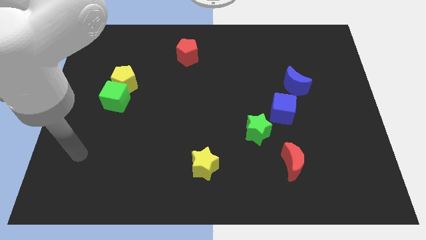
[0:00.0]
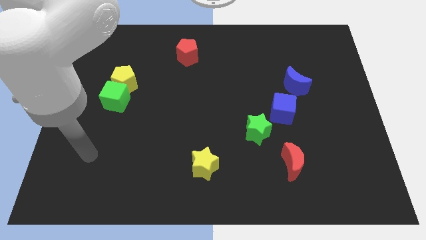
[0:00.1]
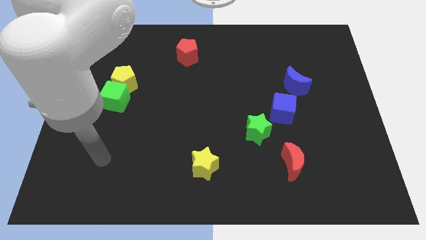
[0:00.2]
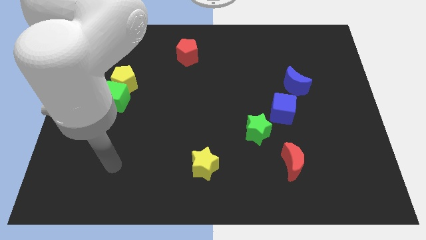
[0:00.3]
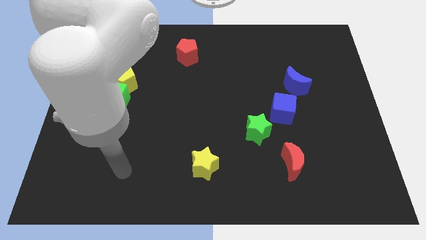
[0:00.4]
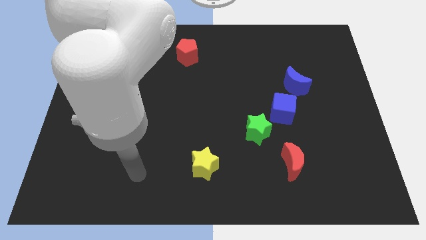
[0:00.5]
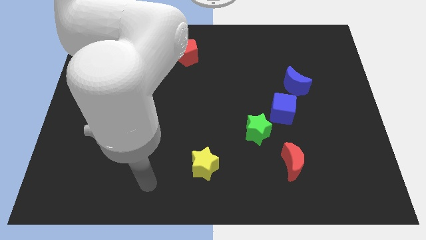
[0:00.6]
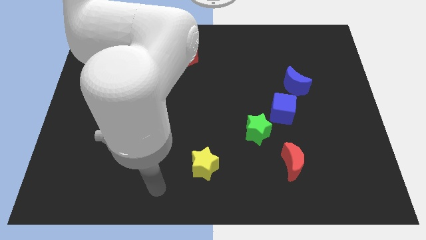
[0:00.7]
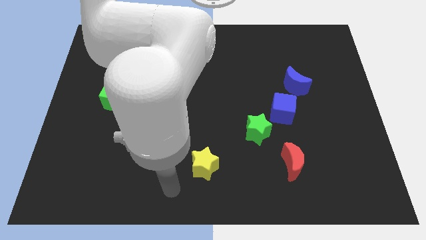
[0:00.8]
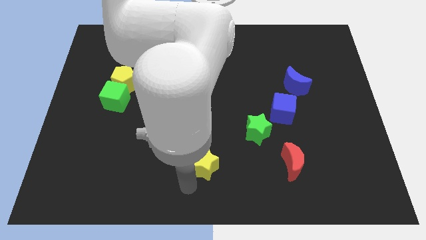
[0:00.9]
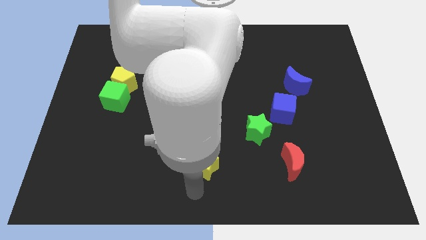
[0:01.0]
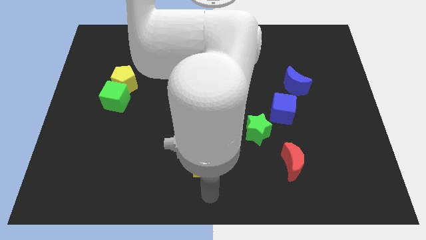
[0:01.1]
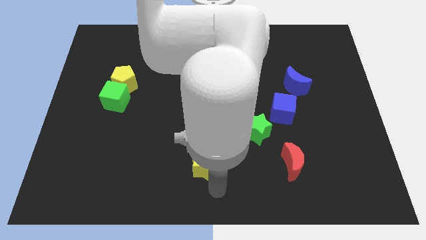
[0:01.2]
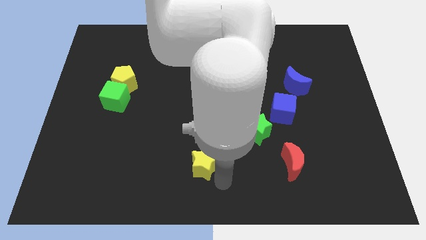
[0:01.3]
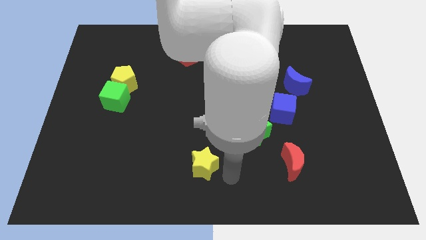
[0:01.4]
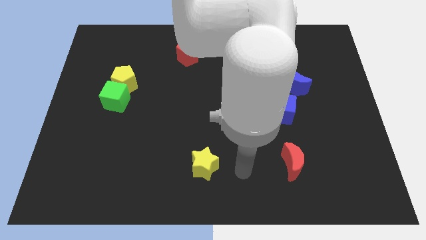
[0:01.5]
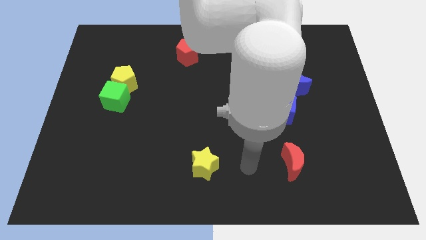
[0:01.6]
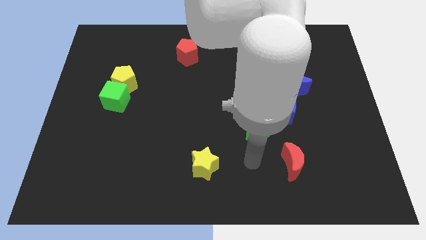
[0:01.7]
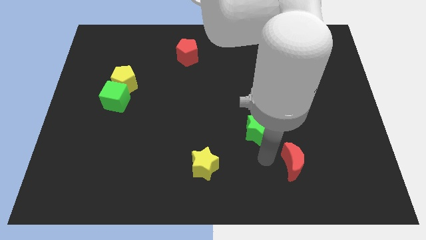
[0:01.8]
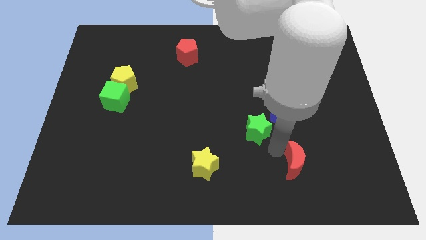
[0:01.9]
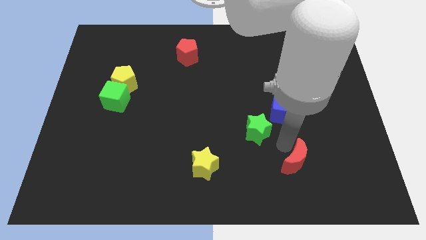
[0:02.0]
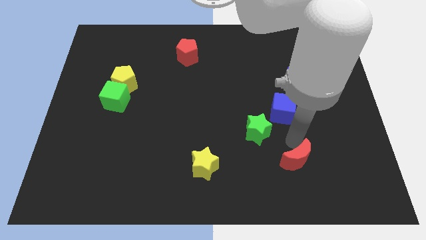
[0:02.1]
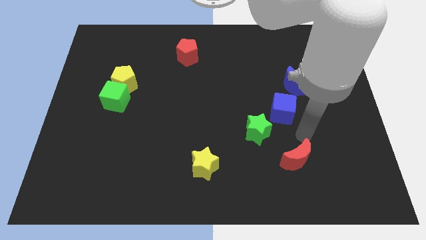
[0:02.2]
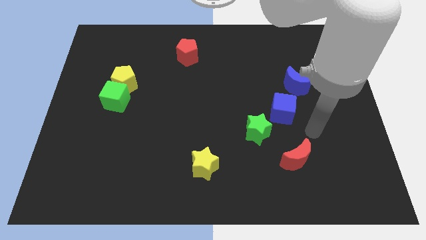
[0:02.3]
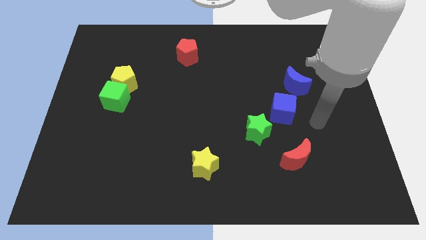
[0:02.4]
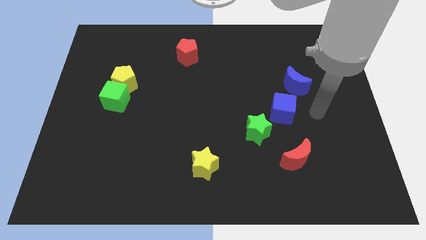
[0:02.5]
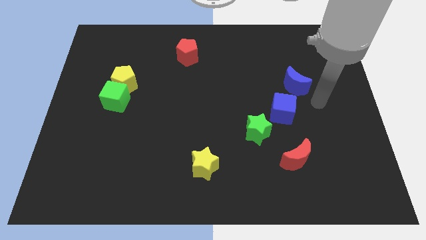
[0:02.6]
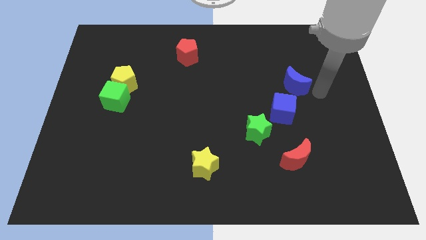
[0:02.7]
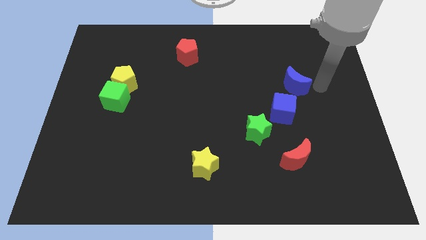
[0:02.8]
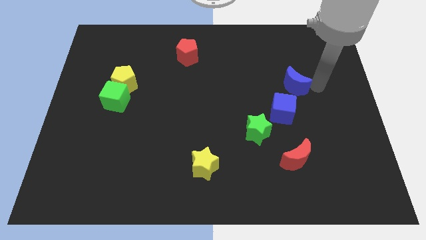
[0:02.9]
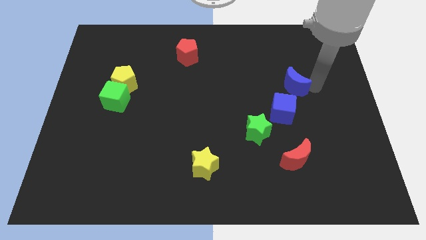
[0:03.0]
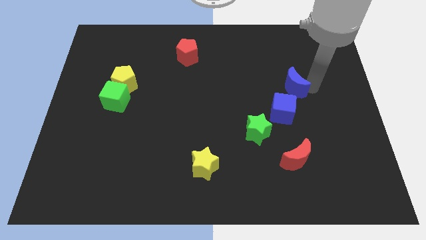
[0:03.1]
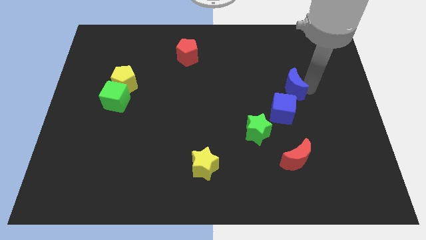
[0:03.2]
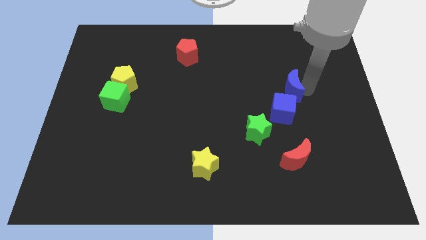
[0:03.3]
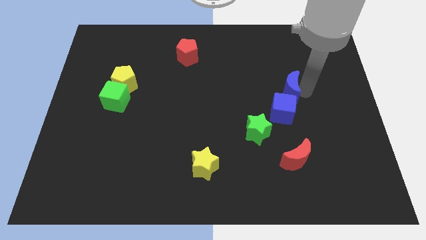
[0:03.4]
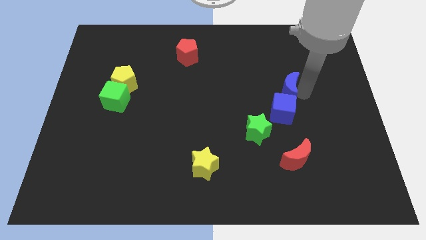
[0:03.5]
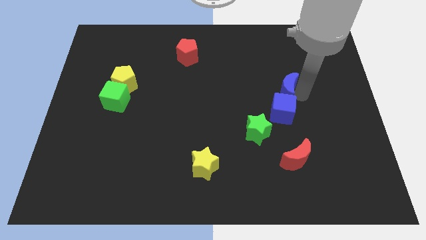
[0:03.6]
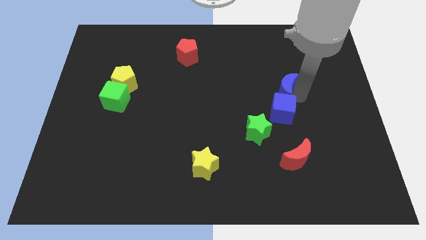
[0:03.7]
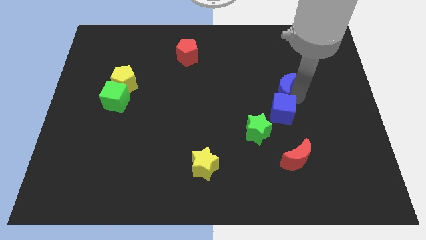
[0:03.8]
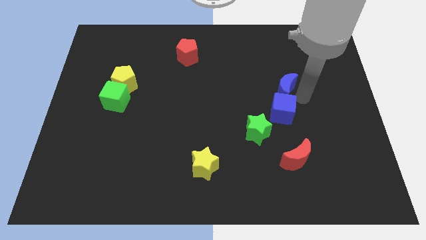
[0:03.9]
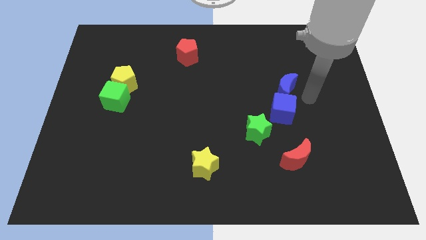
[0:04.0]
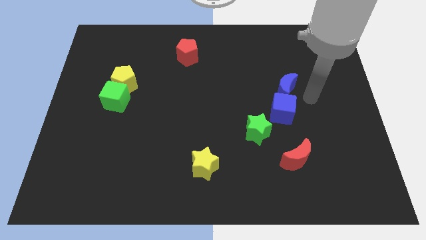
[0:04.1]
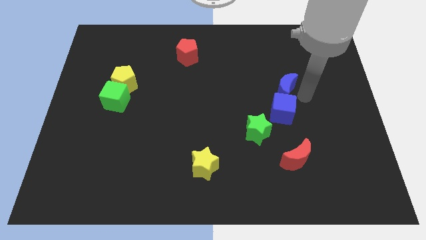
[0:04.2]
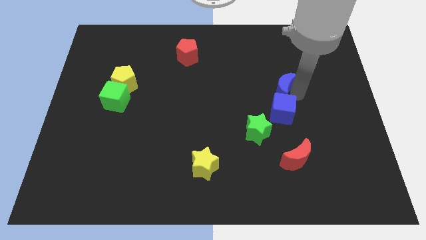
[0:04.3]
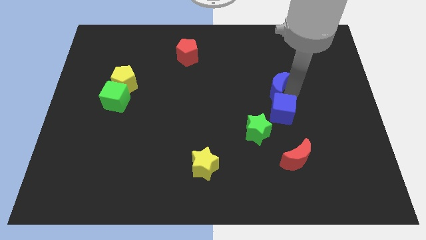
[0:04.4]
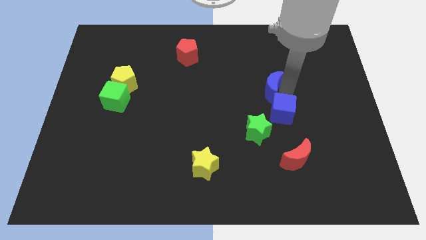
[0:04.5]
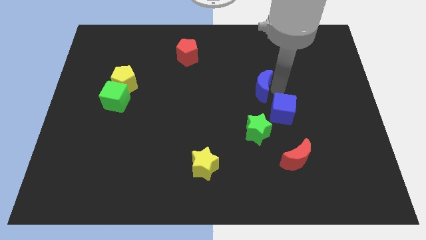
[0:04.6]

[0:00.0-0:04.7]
push the blue moon a little bit left

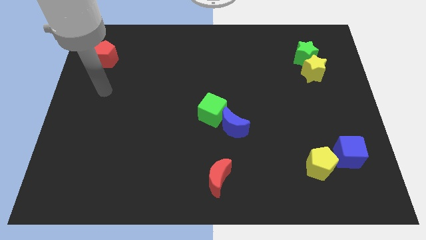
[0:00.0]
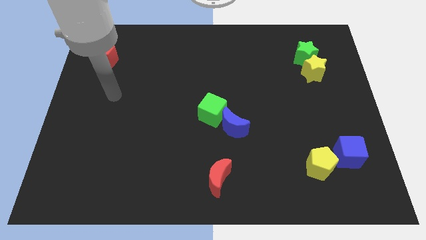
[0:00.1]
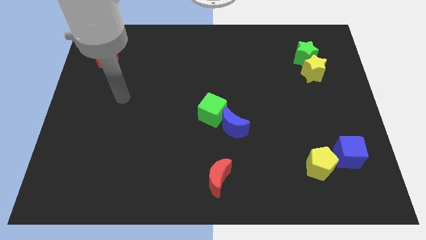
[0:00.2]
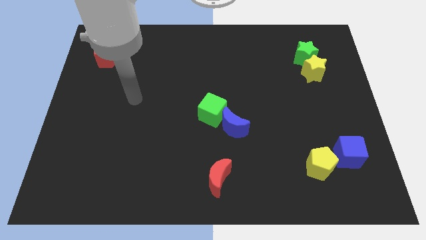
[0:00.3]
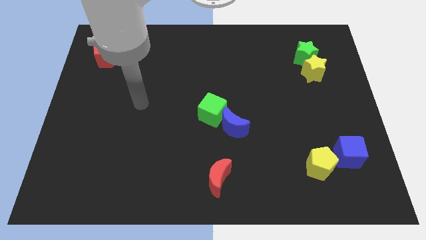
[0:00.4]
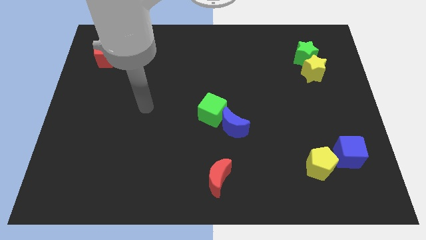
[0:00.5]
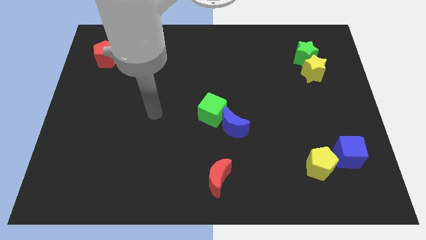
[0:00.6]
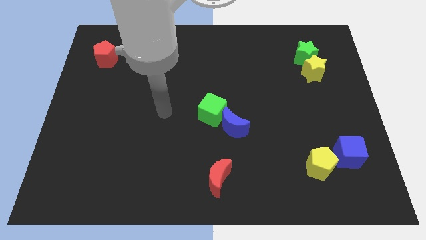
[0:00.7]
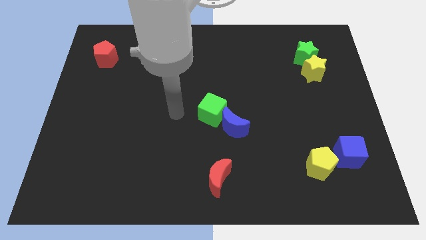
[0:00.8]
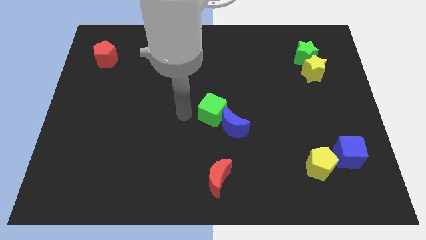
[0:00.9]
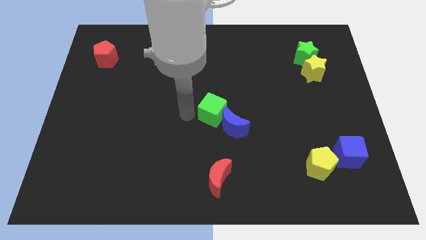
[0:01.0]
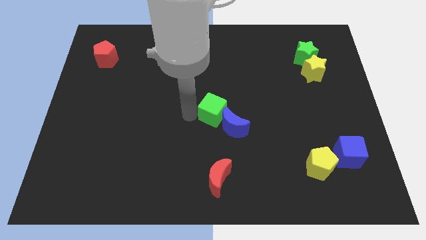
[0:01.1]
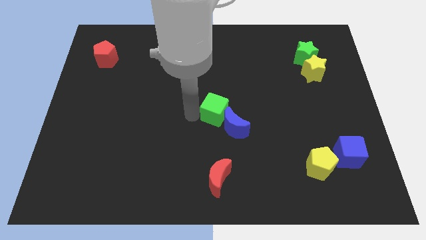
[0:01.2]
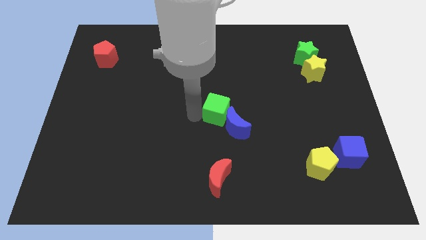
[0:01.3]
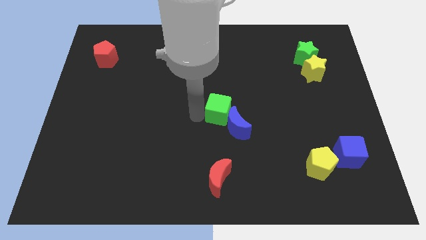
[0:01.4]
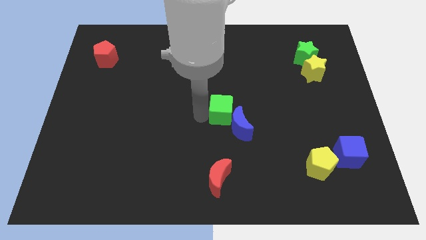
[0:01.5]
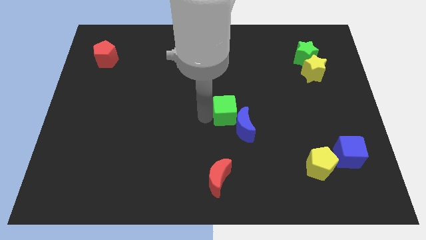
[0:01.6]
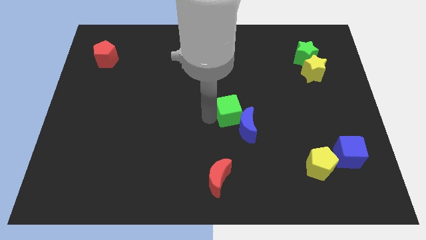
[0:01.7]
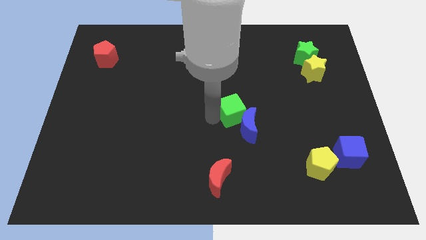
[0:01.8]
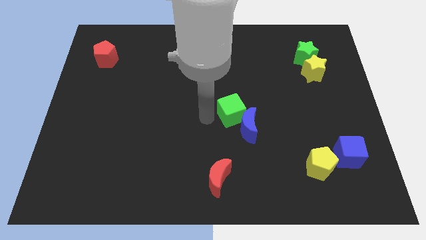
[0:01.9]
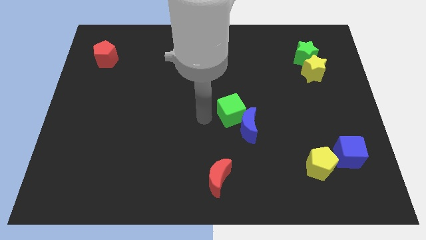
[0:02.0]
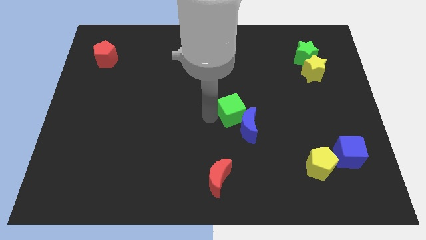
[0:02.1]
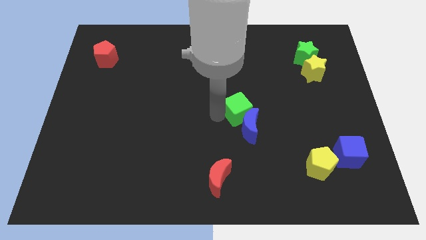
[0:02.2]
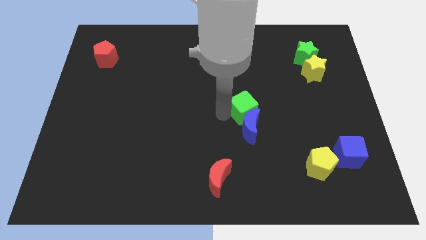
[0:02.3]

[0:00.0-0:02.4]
slide the green cube right slightly

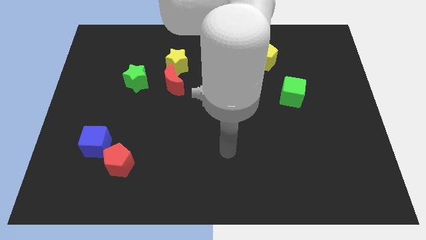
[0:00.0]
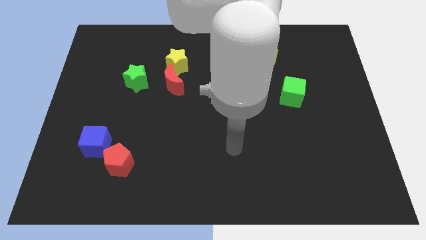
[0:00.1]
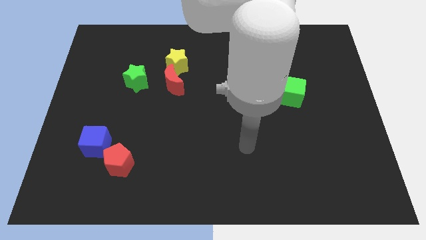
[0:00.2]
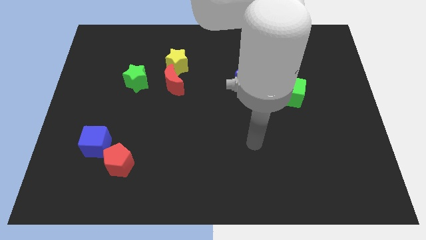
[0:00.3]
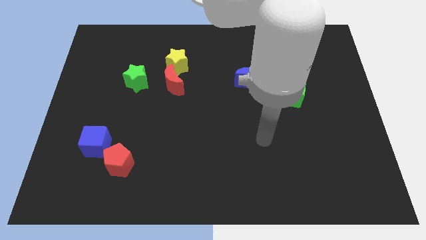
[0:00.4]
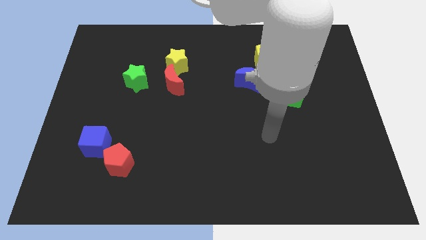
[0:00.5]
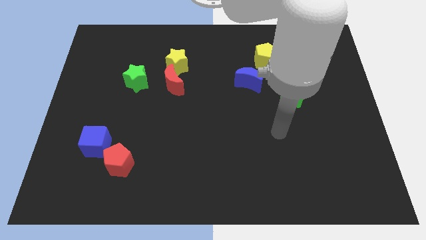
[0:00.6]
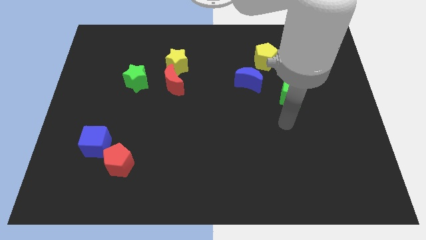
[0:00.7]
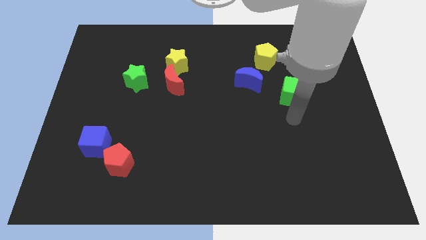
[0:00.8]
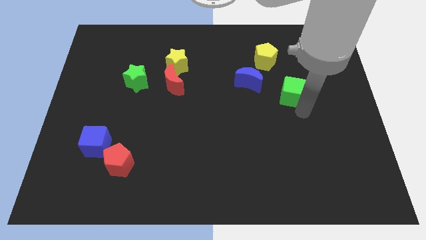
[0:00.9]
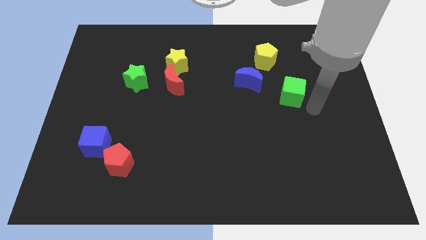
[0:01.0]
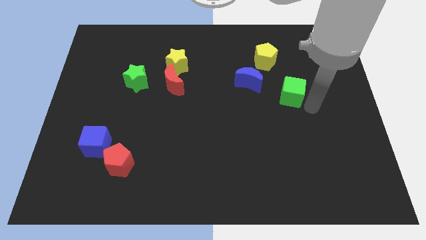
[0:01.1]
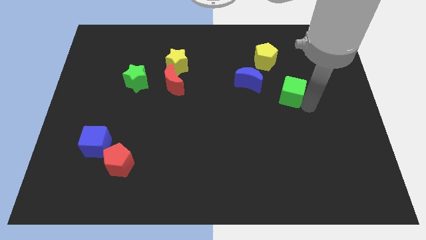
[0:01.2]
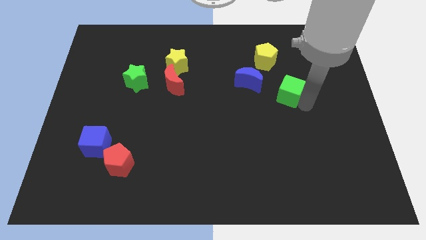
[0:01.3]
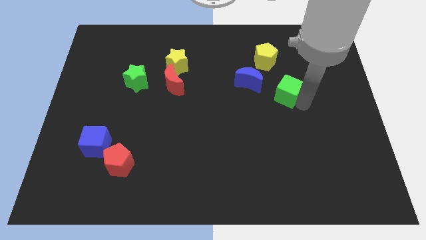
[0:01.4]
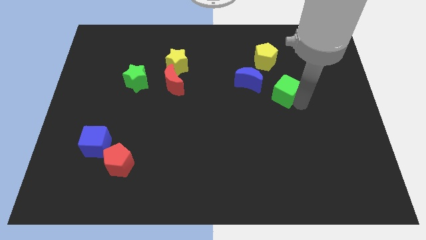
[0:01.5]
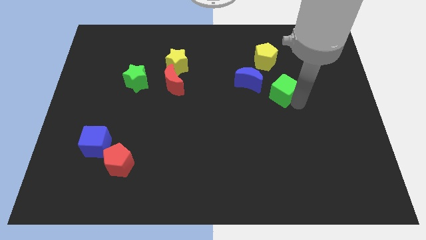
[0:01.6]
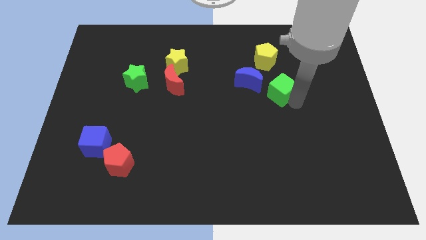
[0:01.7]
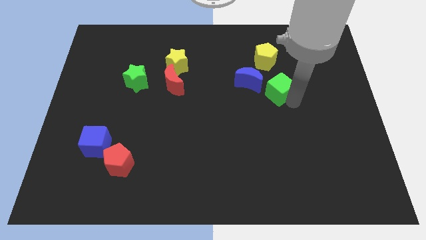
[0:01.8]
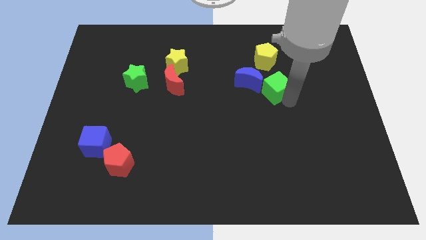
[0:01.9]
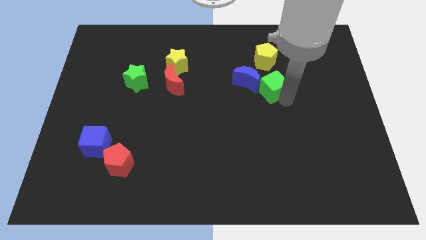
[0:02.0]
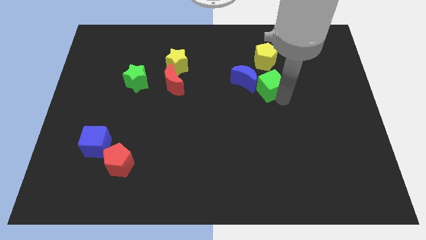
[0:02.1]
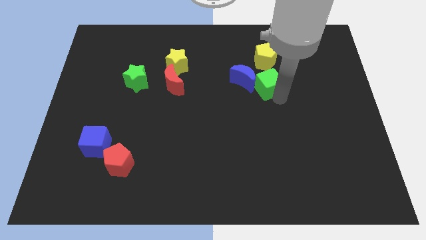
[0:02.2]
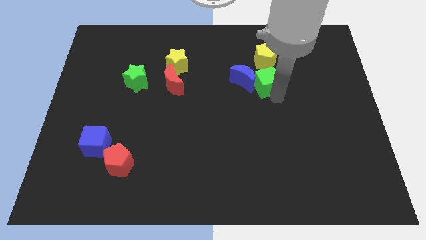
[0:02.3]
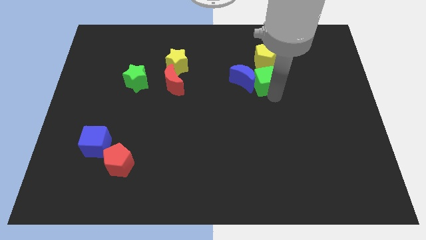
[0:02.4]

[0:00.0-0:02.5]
slightly move the green cube diagonally upwards and to the left
